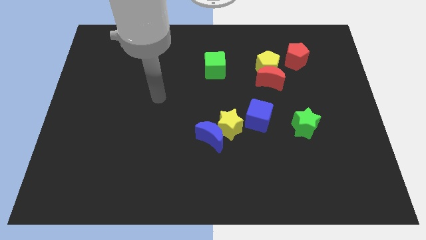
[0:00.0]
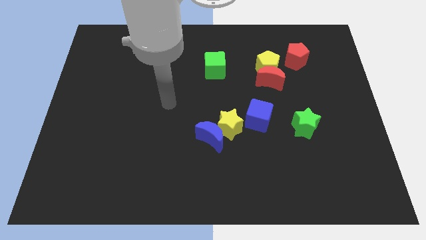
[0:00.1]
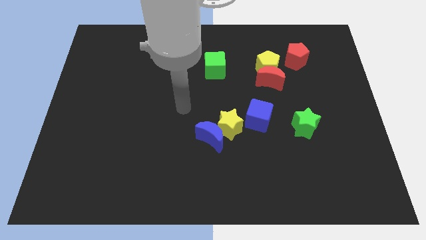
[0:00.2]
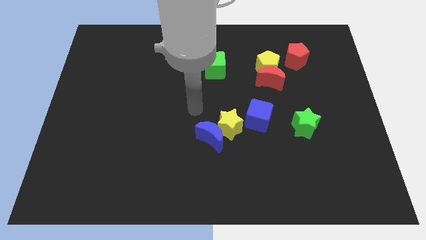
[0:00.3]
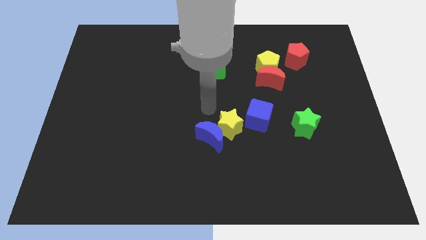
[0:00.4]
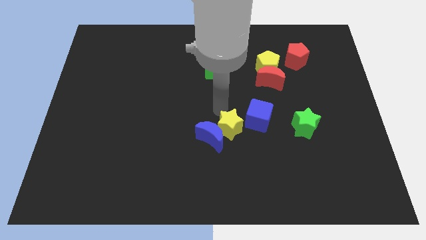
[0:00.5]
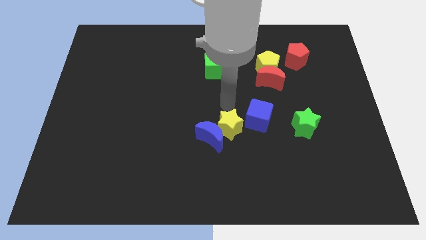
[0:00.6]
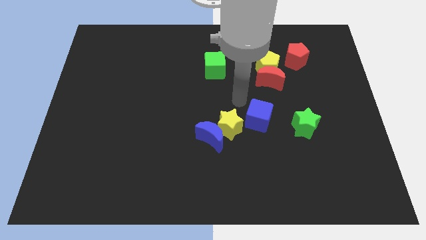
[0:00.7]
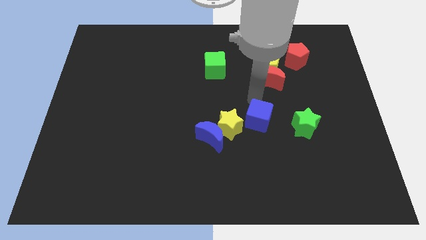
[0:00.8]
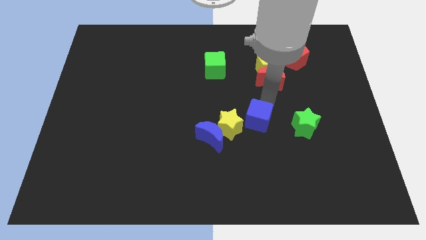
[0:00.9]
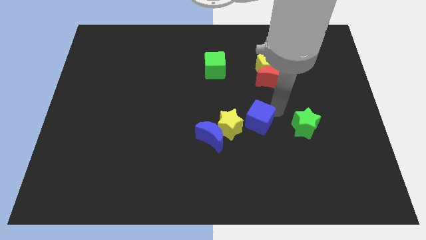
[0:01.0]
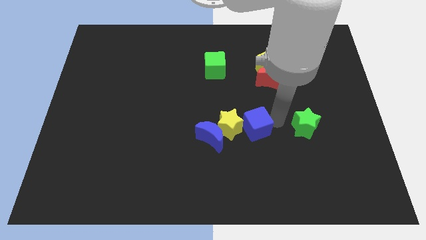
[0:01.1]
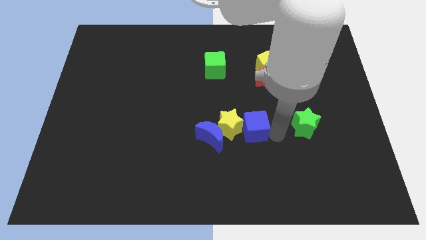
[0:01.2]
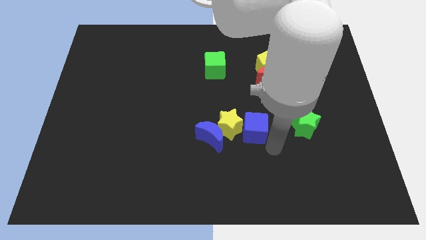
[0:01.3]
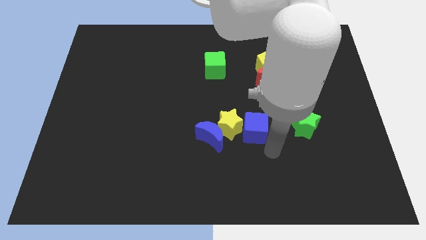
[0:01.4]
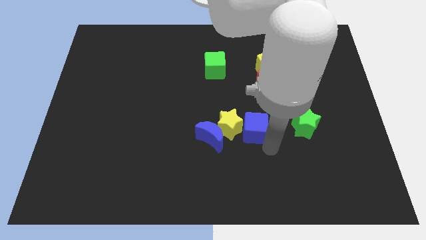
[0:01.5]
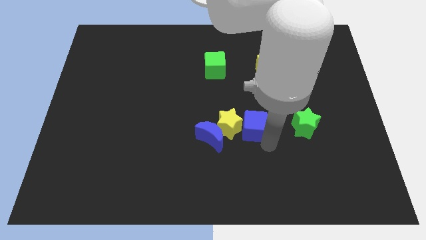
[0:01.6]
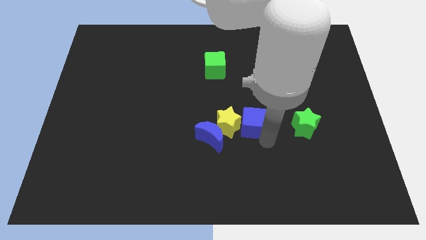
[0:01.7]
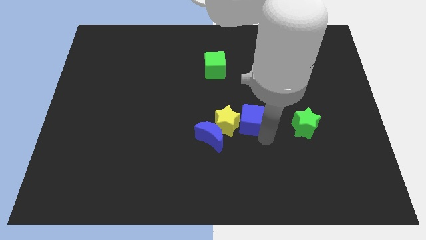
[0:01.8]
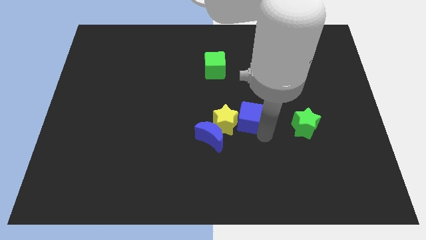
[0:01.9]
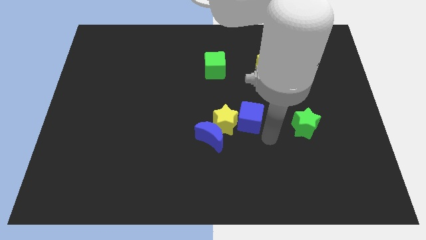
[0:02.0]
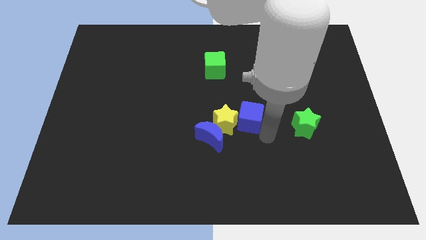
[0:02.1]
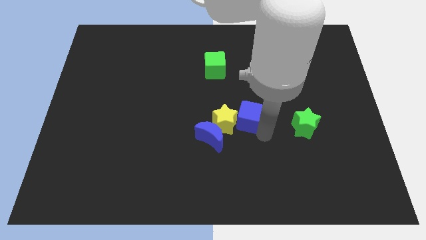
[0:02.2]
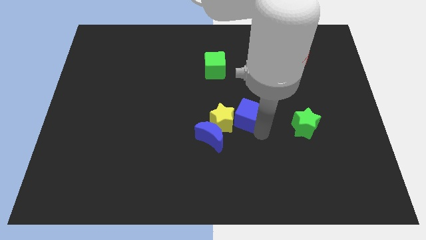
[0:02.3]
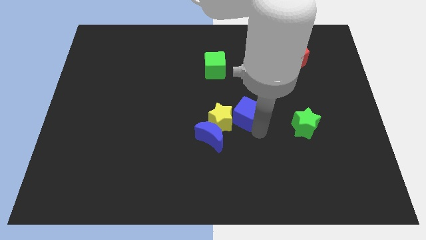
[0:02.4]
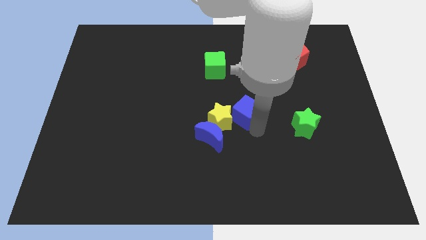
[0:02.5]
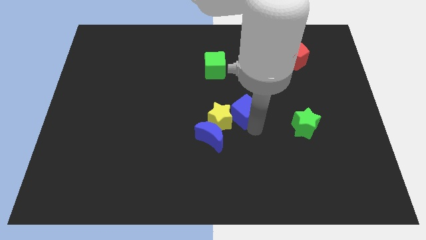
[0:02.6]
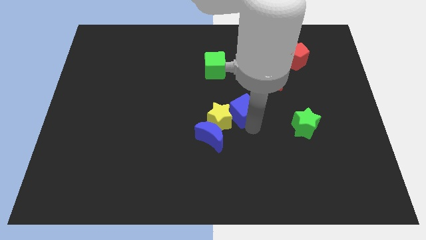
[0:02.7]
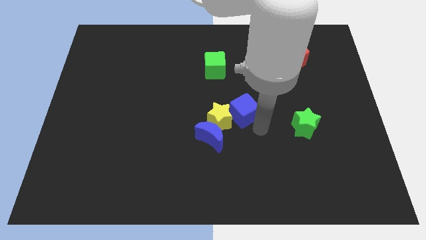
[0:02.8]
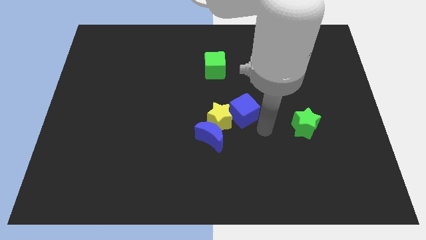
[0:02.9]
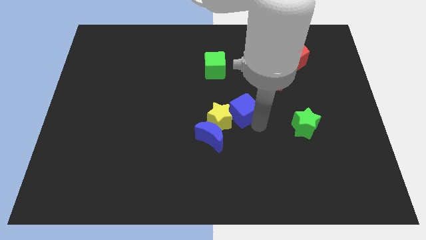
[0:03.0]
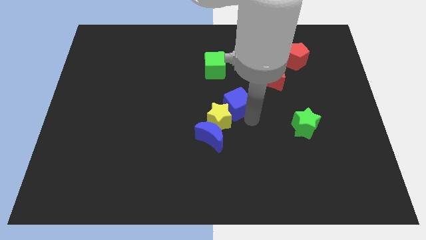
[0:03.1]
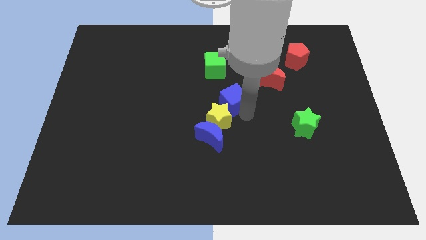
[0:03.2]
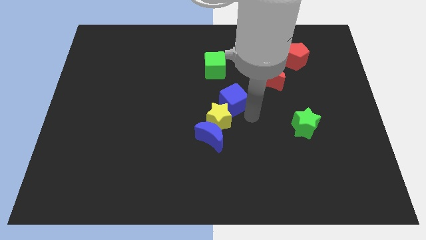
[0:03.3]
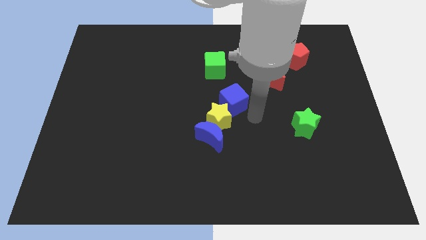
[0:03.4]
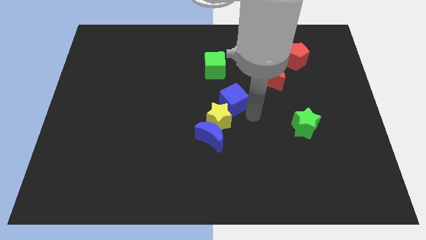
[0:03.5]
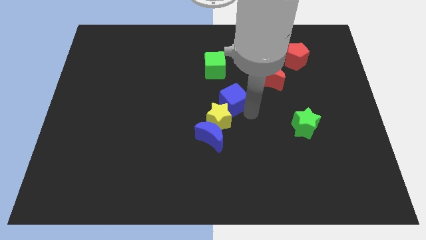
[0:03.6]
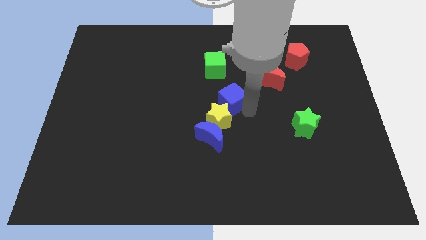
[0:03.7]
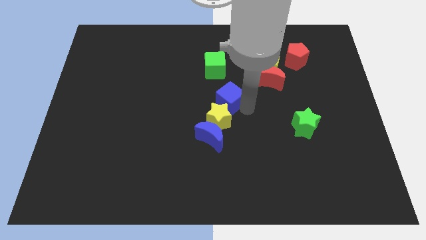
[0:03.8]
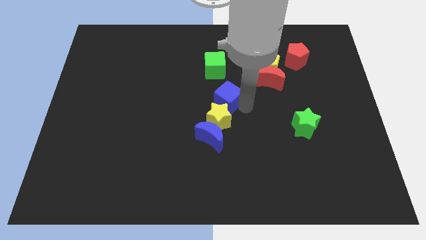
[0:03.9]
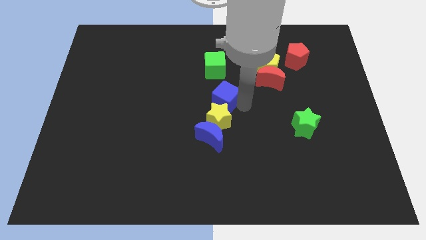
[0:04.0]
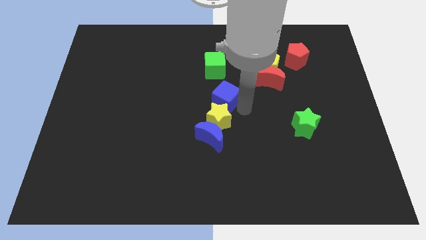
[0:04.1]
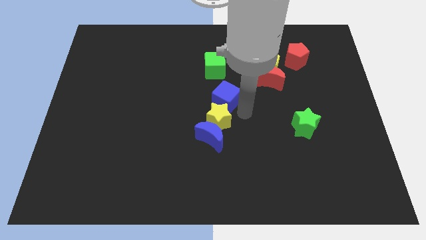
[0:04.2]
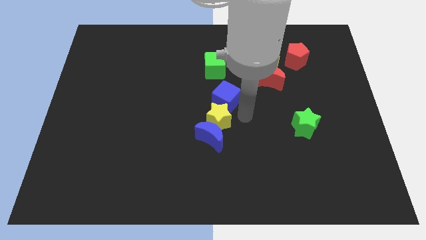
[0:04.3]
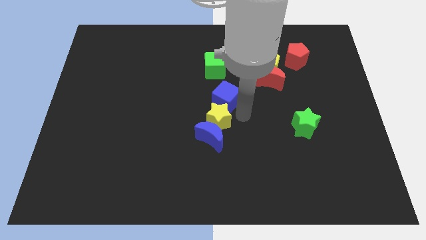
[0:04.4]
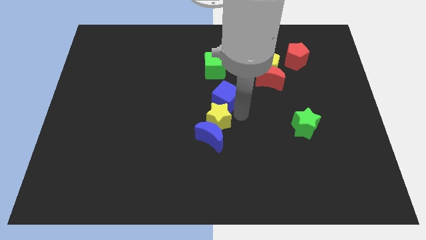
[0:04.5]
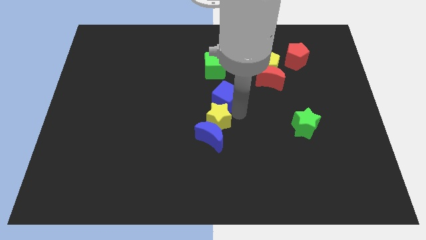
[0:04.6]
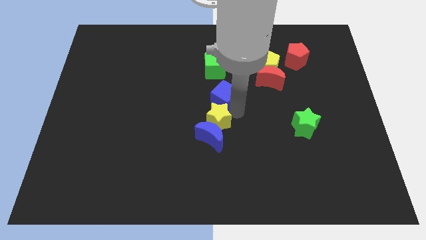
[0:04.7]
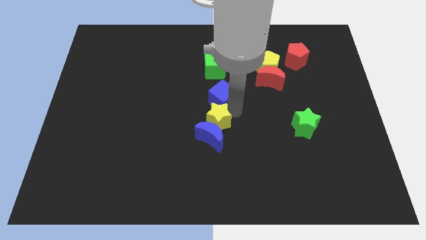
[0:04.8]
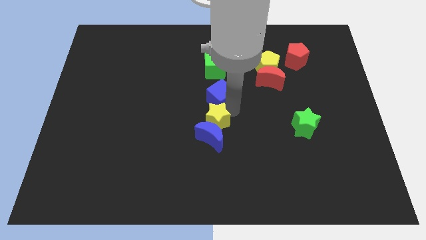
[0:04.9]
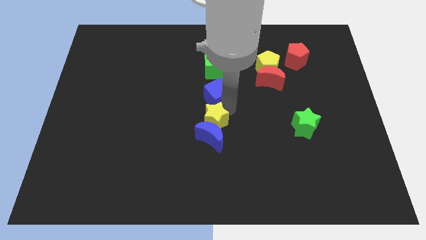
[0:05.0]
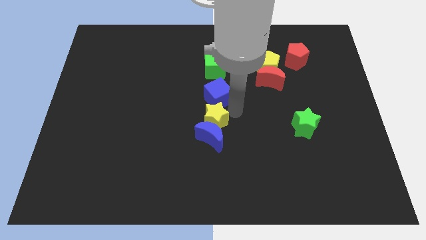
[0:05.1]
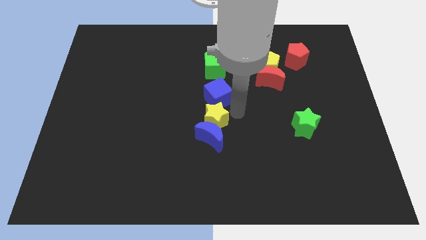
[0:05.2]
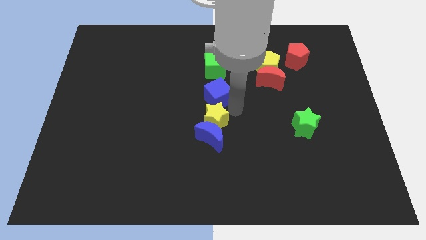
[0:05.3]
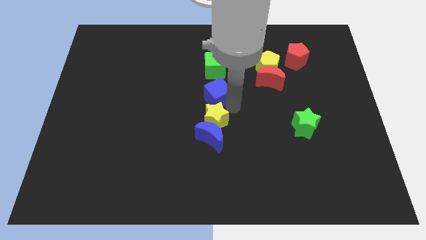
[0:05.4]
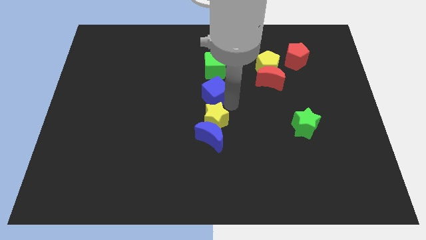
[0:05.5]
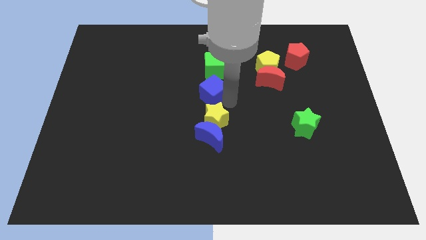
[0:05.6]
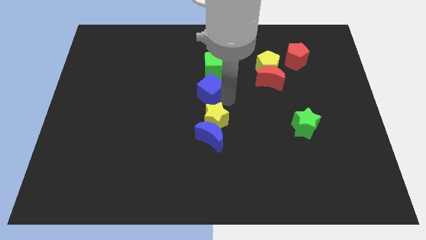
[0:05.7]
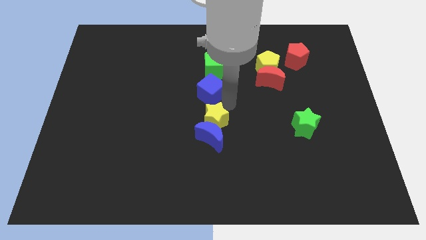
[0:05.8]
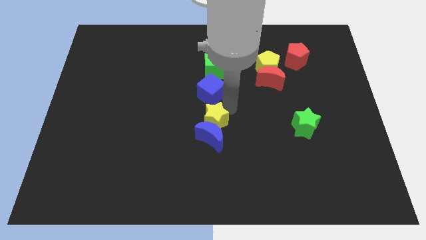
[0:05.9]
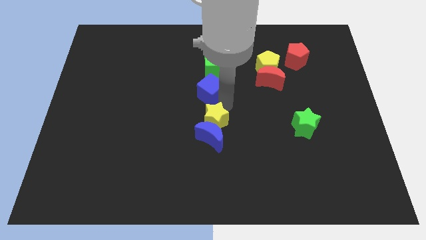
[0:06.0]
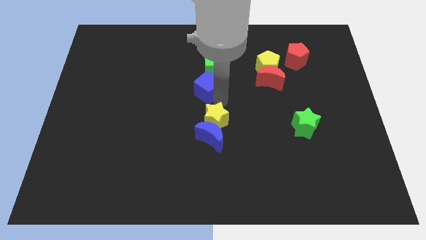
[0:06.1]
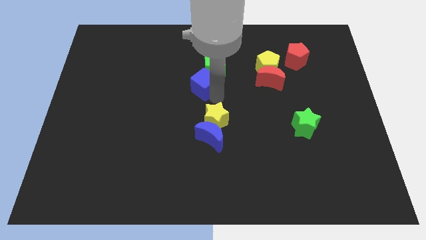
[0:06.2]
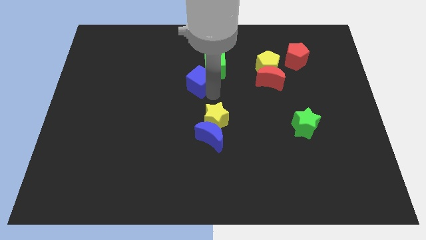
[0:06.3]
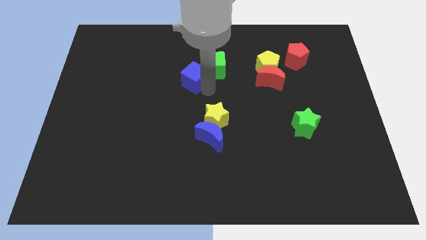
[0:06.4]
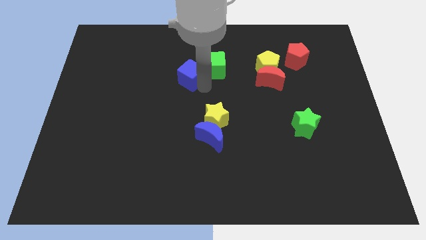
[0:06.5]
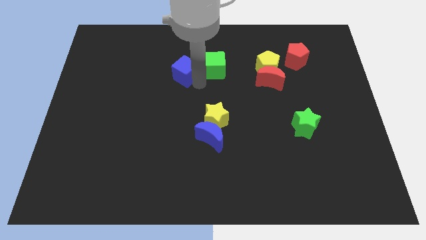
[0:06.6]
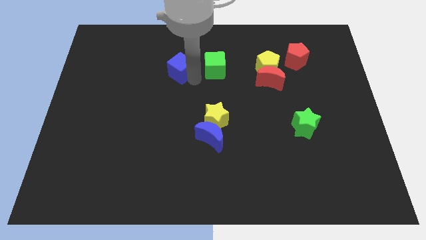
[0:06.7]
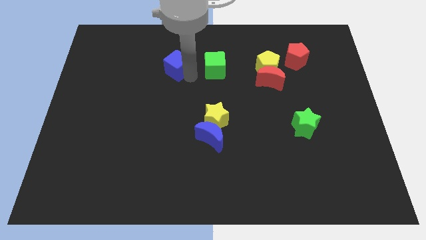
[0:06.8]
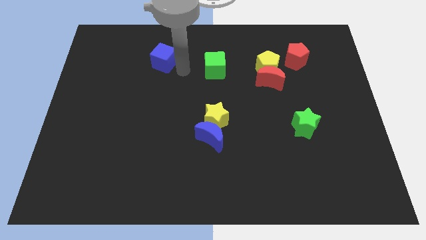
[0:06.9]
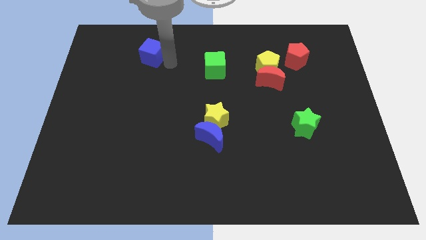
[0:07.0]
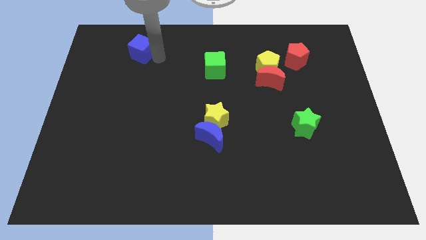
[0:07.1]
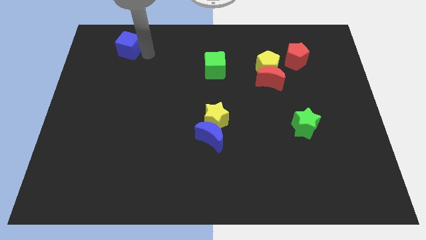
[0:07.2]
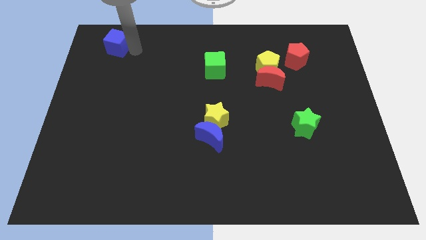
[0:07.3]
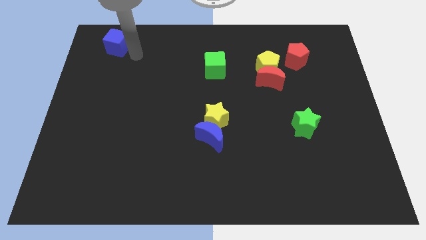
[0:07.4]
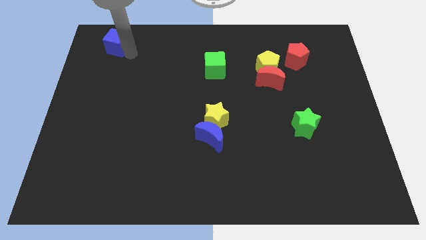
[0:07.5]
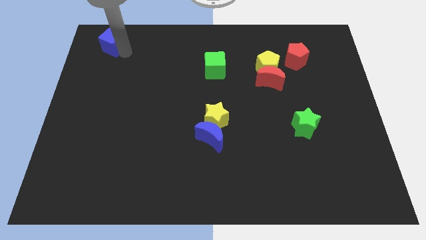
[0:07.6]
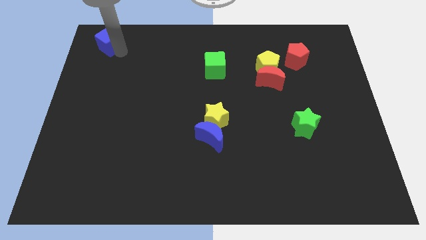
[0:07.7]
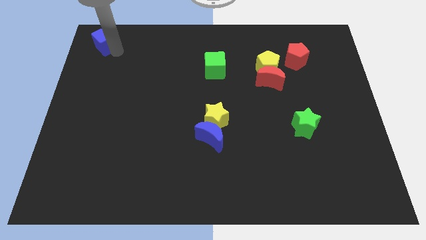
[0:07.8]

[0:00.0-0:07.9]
push the blue cube to the upper left corner
